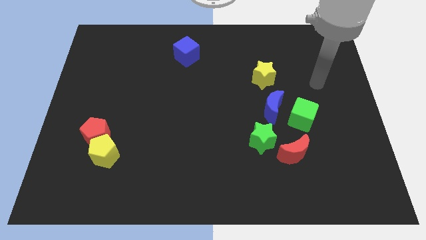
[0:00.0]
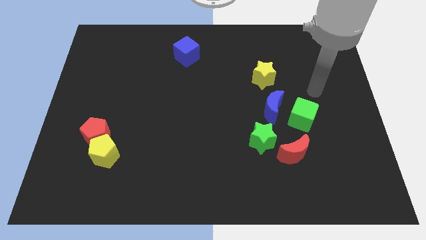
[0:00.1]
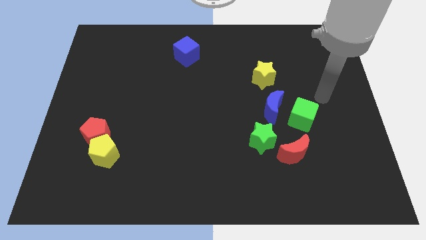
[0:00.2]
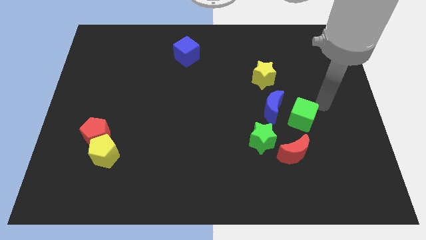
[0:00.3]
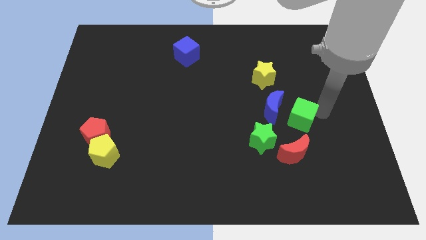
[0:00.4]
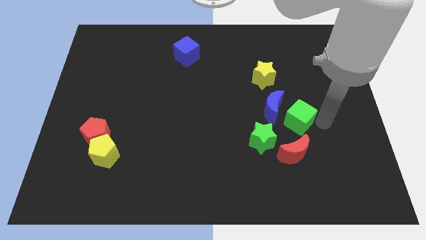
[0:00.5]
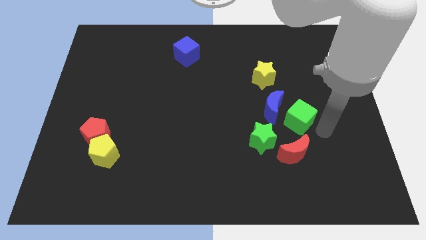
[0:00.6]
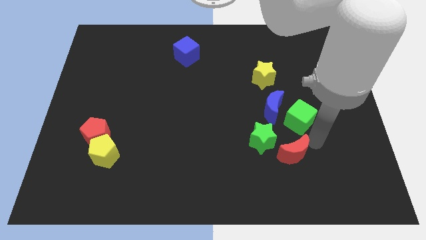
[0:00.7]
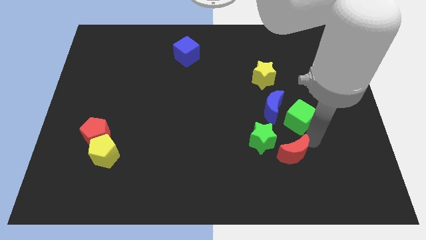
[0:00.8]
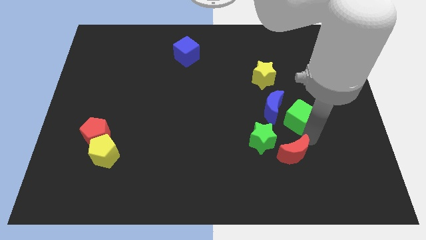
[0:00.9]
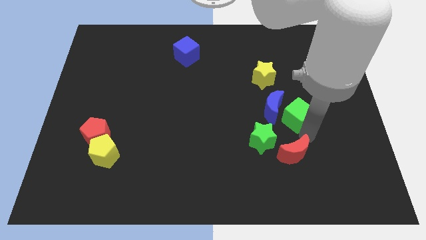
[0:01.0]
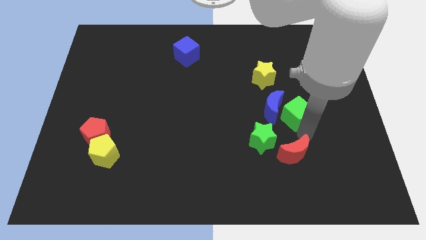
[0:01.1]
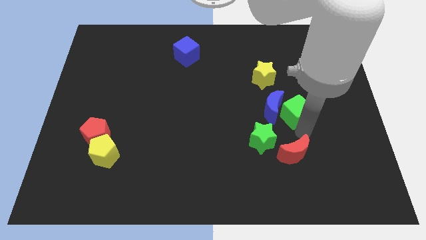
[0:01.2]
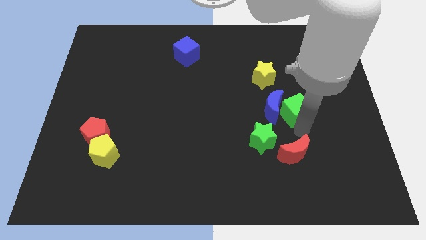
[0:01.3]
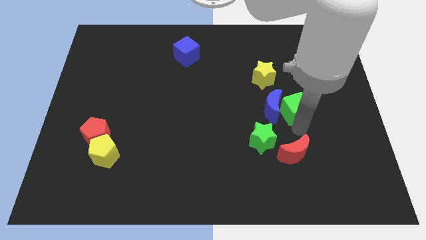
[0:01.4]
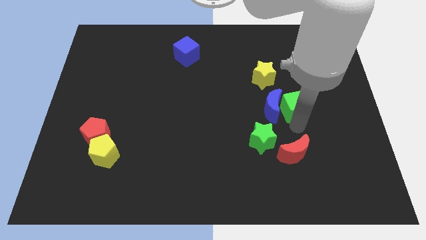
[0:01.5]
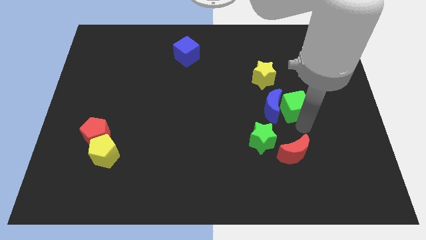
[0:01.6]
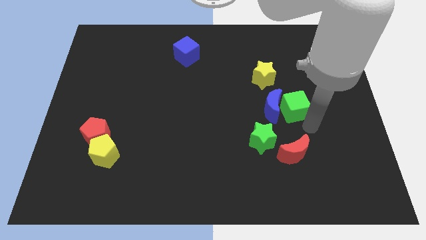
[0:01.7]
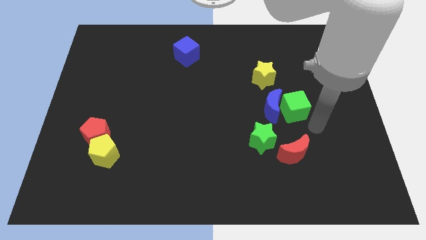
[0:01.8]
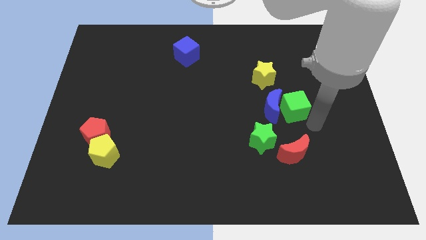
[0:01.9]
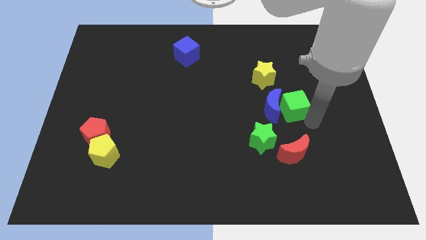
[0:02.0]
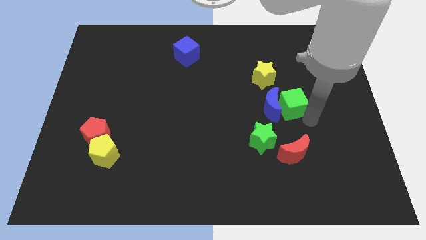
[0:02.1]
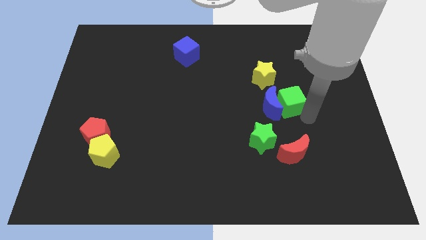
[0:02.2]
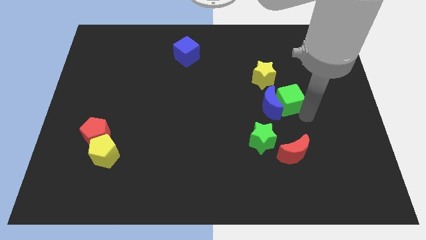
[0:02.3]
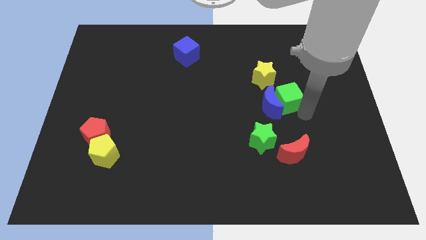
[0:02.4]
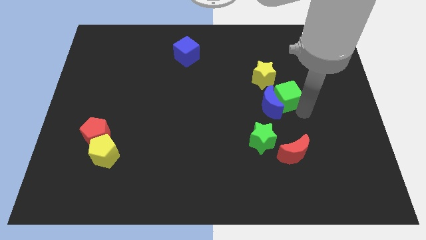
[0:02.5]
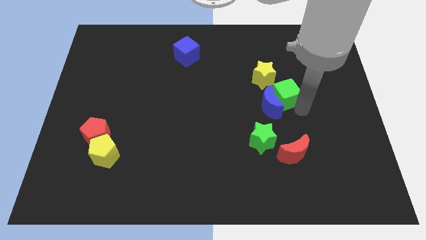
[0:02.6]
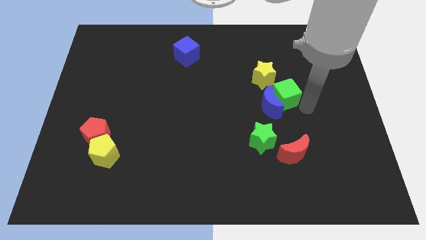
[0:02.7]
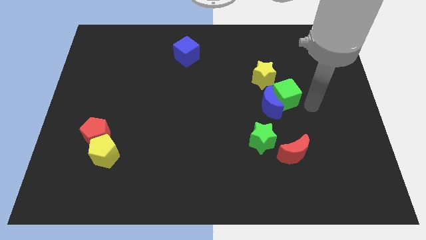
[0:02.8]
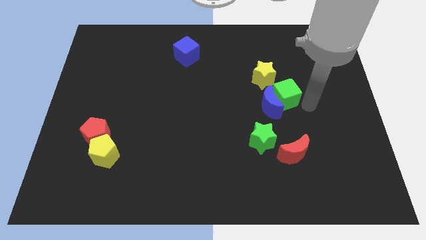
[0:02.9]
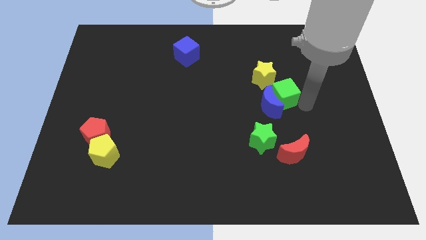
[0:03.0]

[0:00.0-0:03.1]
push the green cube somewhat upwards and to the left diagonally

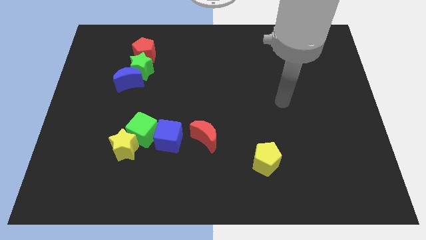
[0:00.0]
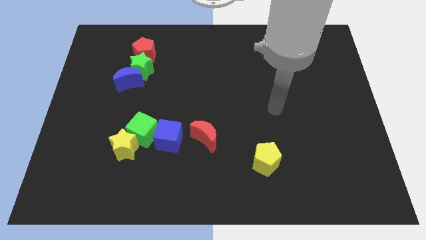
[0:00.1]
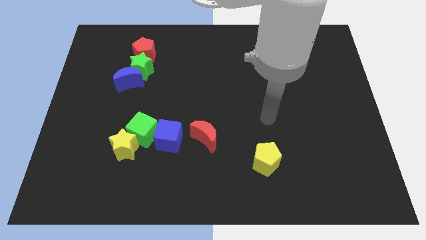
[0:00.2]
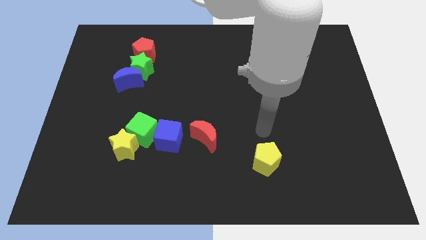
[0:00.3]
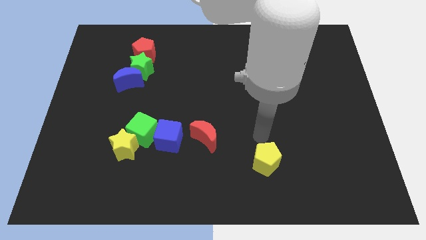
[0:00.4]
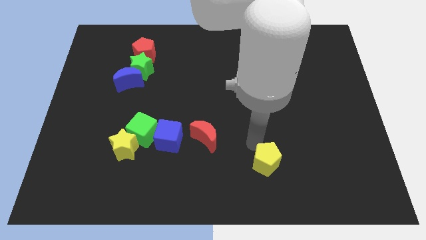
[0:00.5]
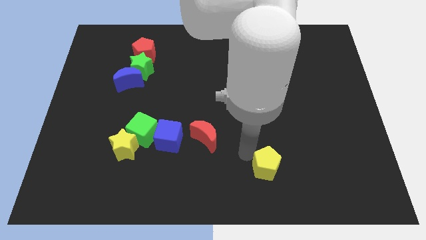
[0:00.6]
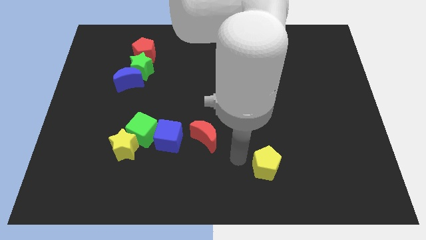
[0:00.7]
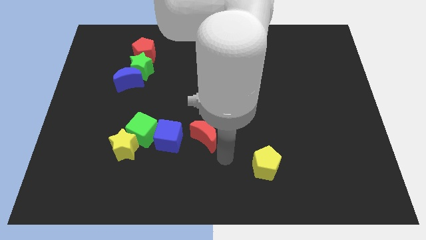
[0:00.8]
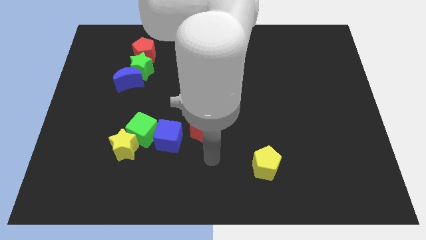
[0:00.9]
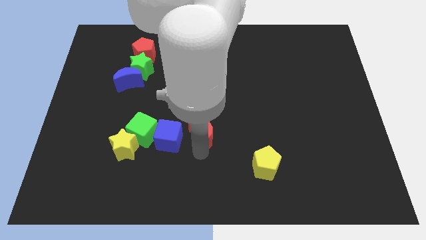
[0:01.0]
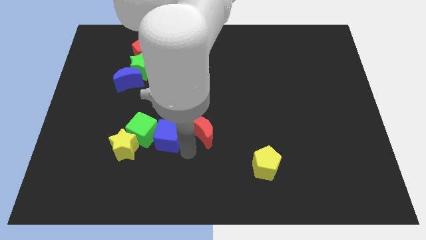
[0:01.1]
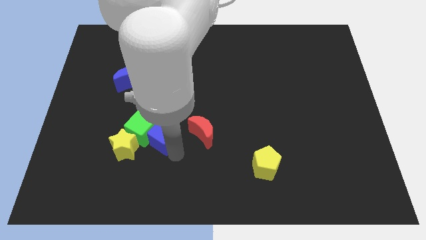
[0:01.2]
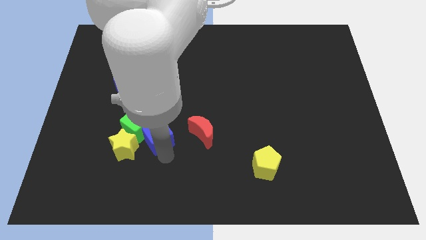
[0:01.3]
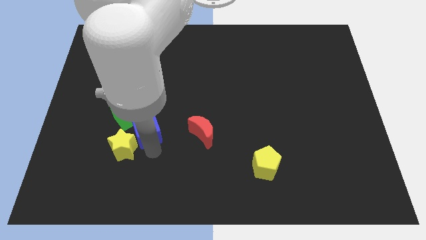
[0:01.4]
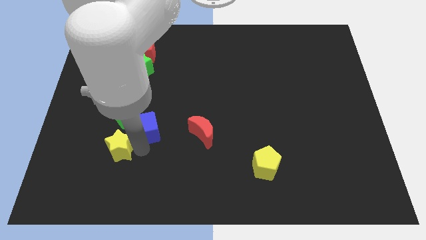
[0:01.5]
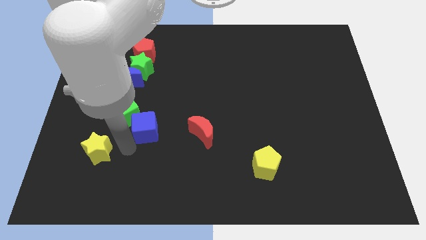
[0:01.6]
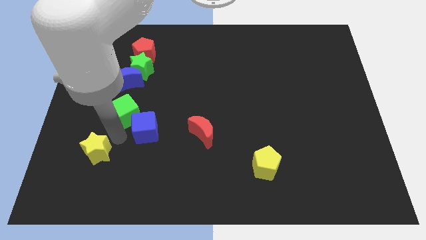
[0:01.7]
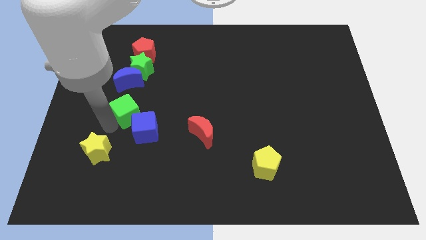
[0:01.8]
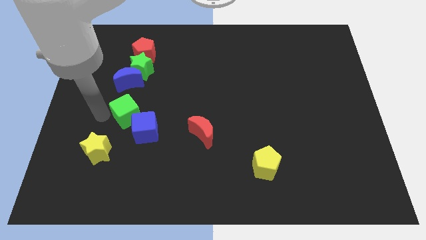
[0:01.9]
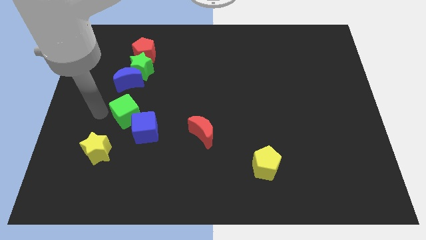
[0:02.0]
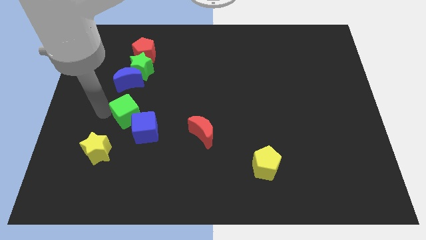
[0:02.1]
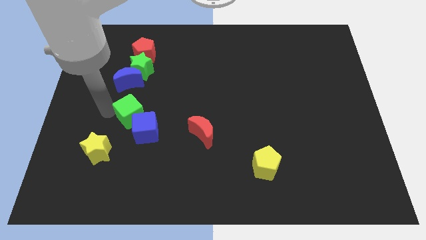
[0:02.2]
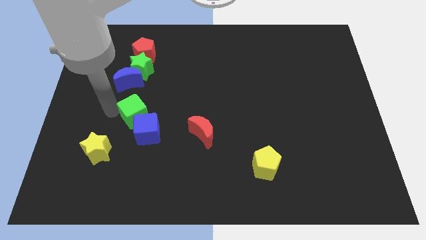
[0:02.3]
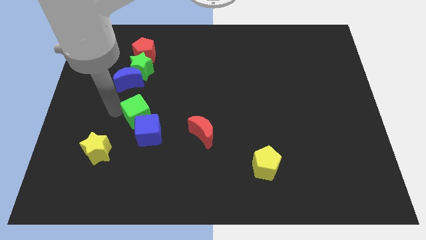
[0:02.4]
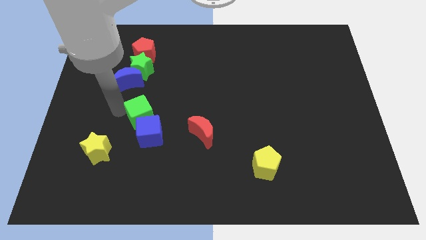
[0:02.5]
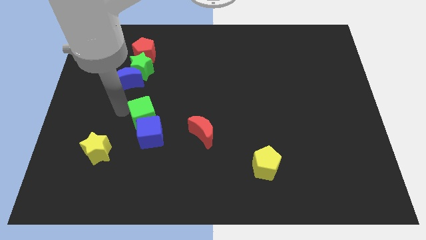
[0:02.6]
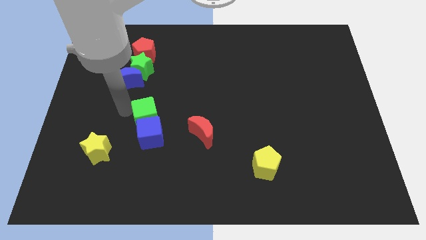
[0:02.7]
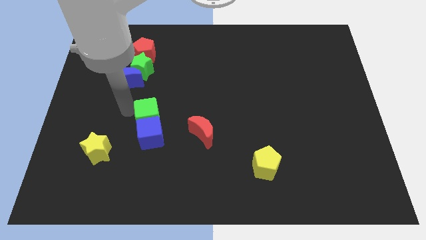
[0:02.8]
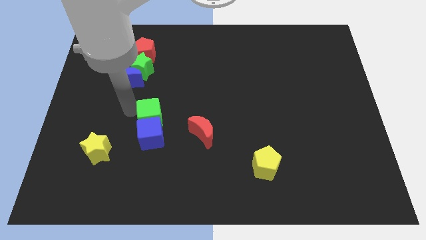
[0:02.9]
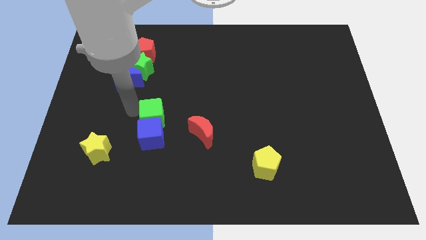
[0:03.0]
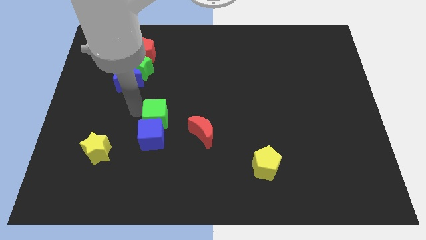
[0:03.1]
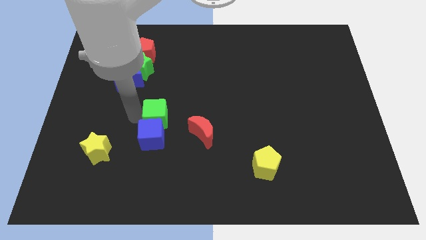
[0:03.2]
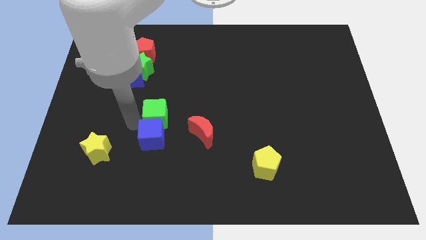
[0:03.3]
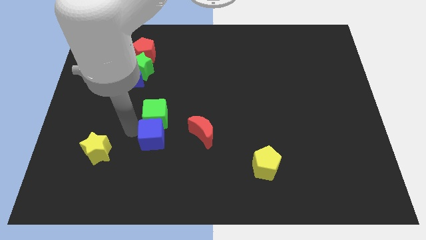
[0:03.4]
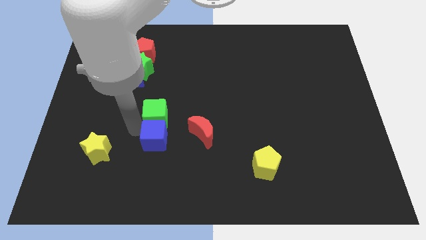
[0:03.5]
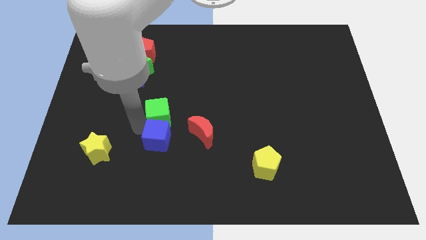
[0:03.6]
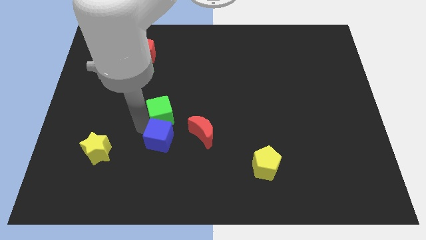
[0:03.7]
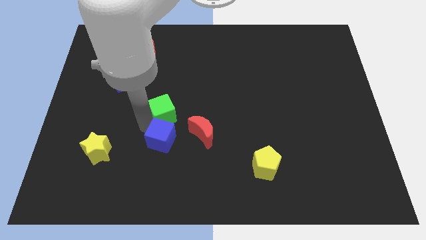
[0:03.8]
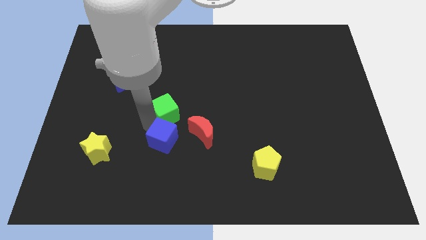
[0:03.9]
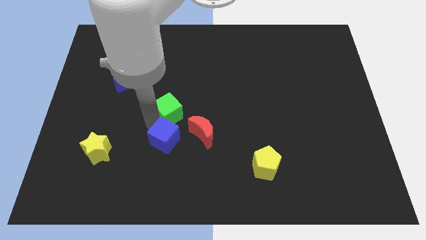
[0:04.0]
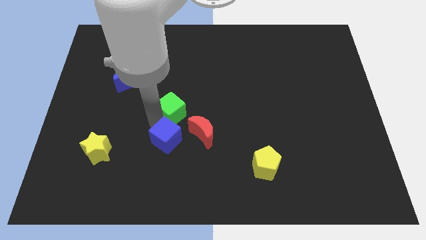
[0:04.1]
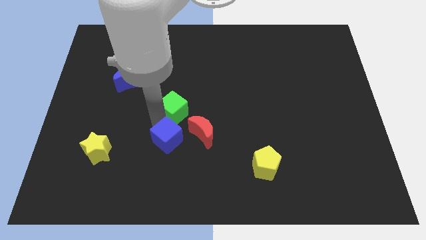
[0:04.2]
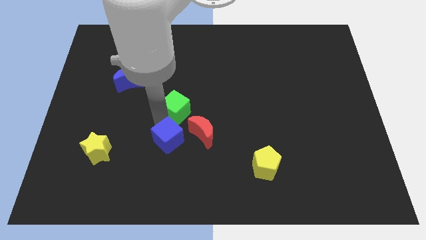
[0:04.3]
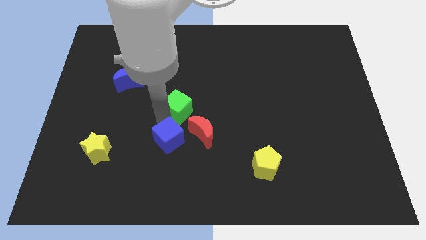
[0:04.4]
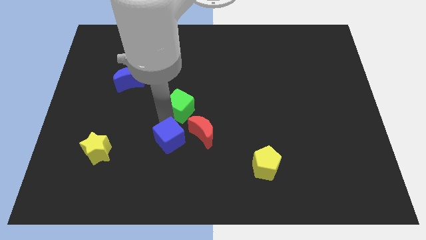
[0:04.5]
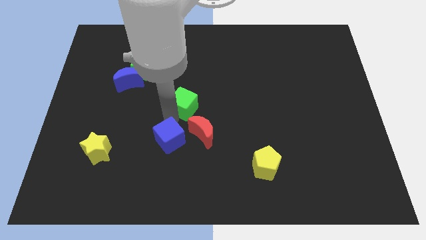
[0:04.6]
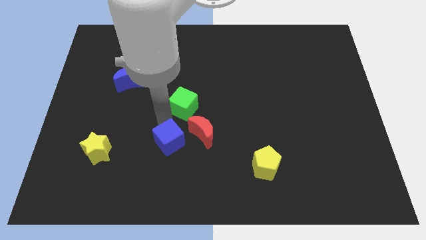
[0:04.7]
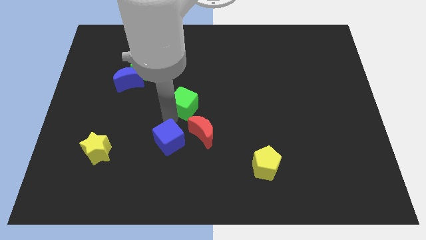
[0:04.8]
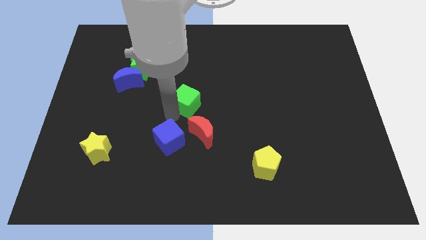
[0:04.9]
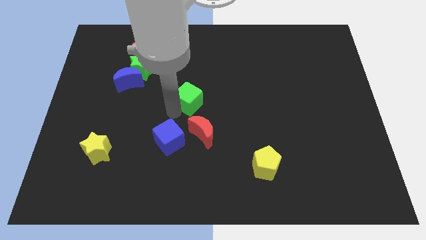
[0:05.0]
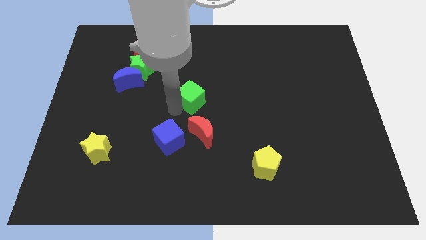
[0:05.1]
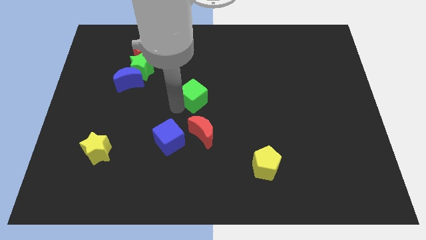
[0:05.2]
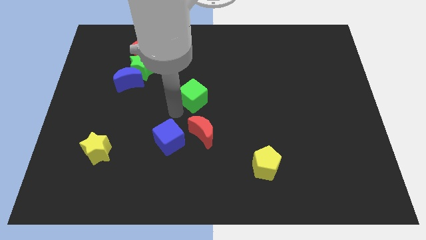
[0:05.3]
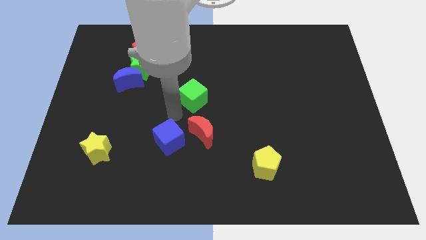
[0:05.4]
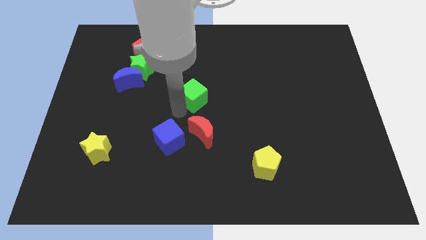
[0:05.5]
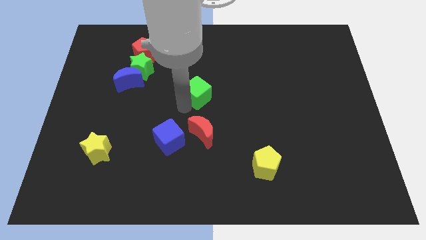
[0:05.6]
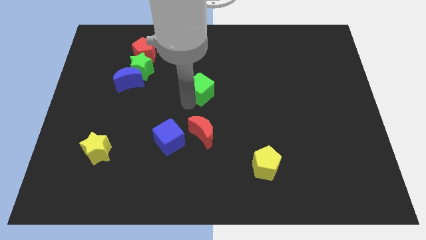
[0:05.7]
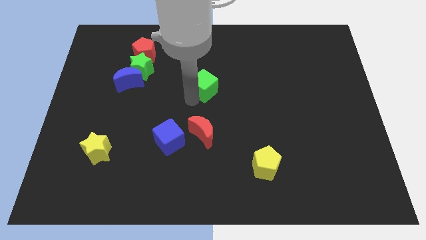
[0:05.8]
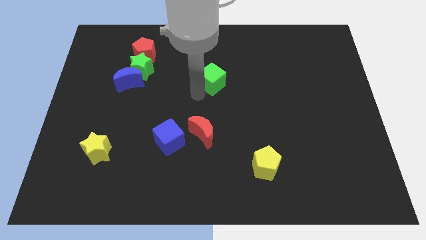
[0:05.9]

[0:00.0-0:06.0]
push the green cube diagonally upwards and right
